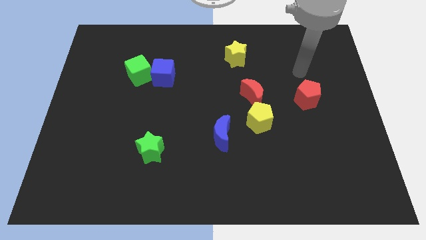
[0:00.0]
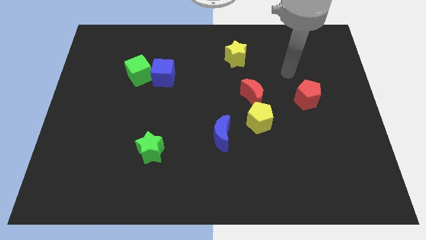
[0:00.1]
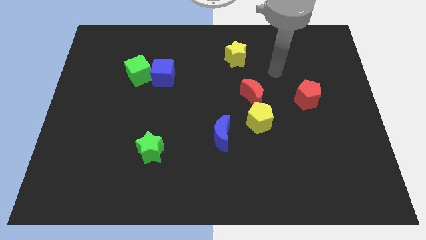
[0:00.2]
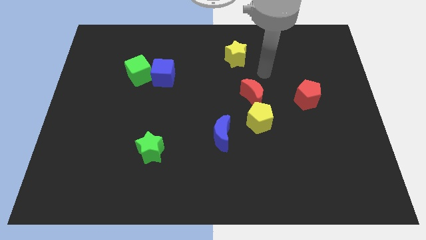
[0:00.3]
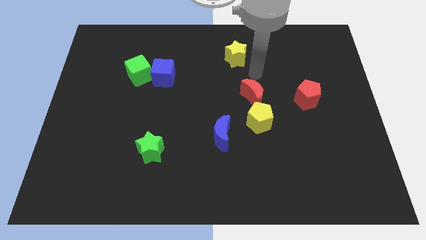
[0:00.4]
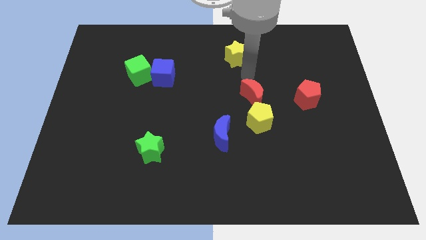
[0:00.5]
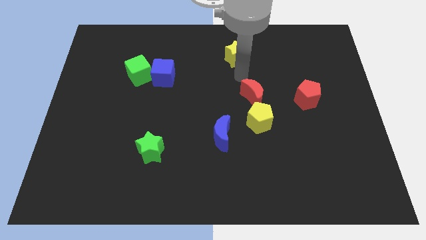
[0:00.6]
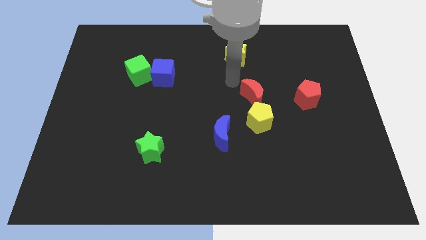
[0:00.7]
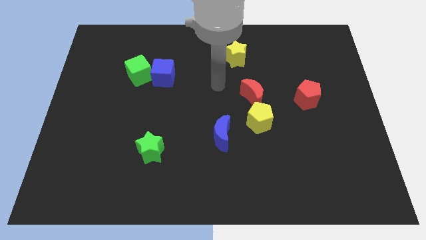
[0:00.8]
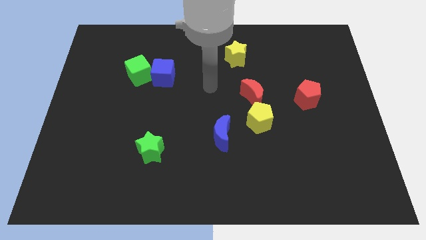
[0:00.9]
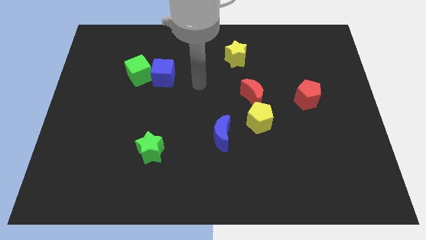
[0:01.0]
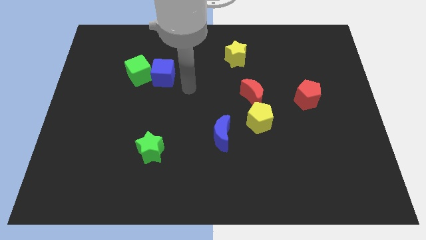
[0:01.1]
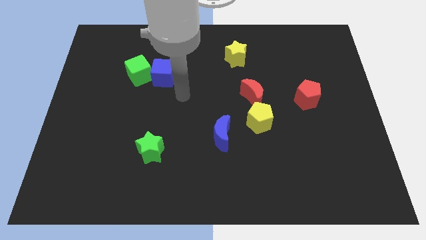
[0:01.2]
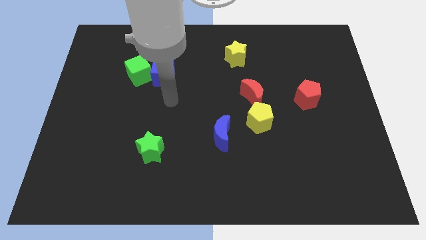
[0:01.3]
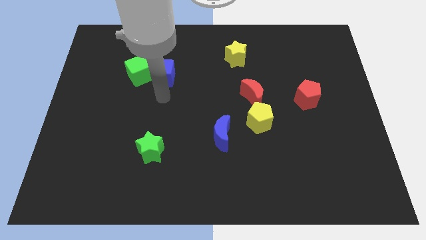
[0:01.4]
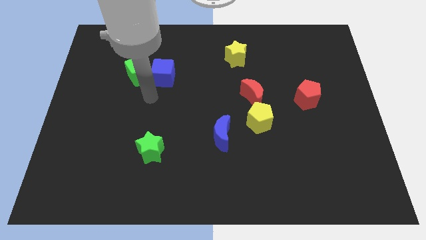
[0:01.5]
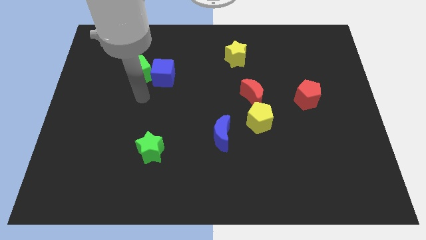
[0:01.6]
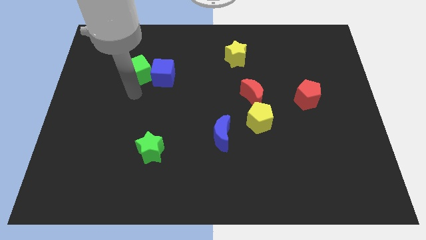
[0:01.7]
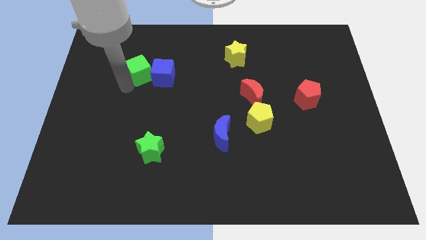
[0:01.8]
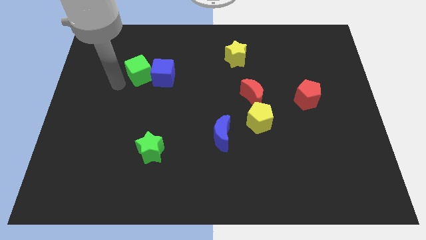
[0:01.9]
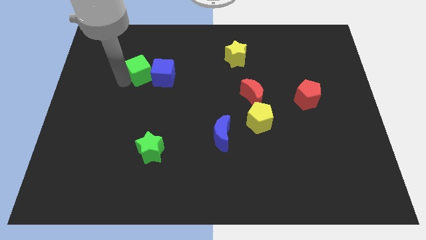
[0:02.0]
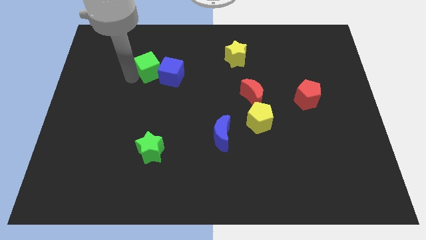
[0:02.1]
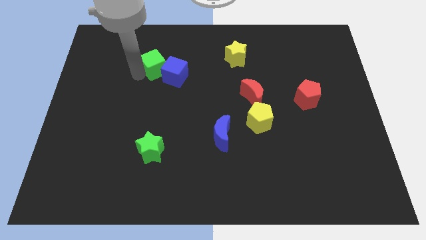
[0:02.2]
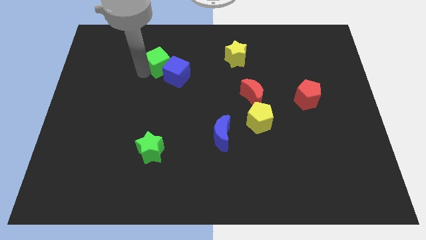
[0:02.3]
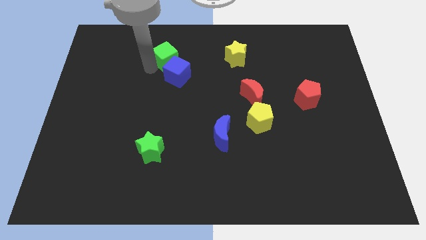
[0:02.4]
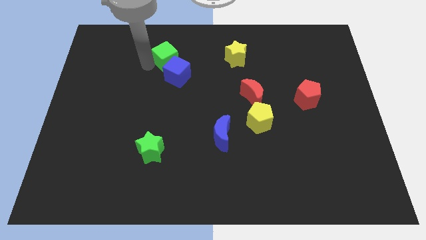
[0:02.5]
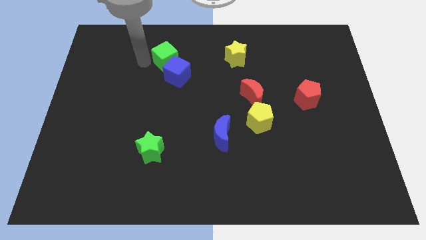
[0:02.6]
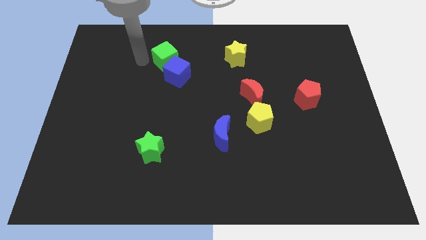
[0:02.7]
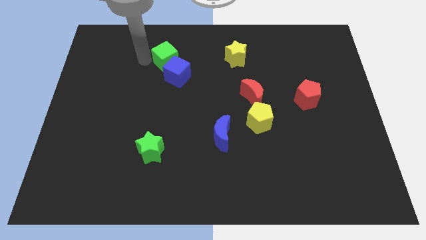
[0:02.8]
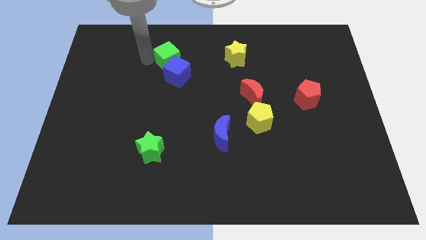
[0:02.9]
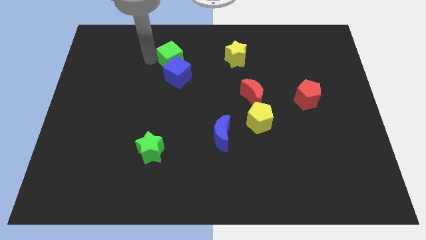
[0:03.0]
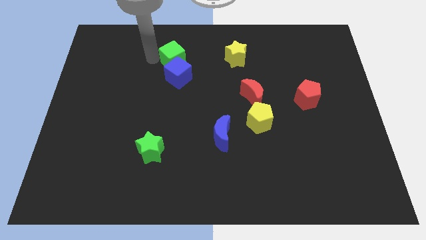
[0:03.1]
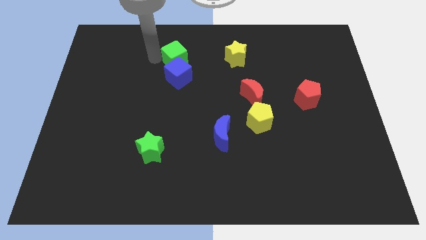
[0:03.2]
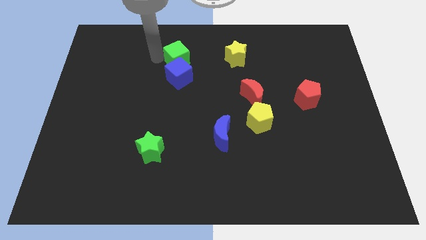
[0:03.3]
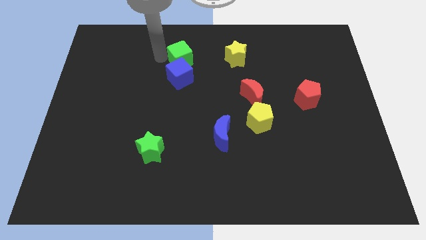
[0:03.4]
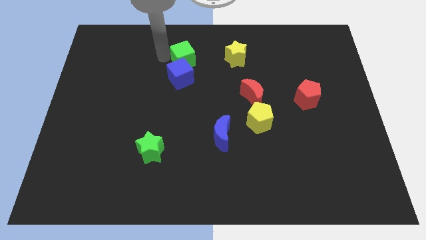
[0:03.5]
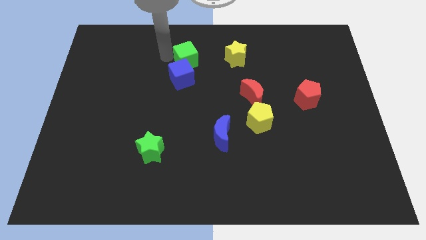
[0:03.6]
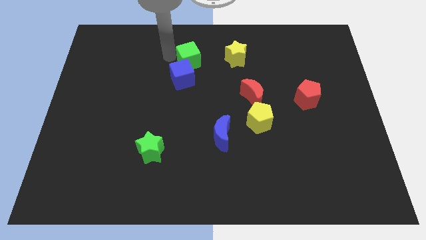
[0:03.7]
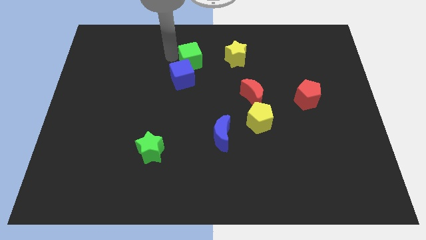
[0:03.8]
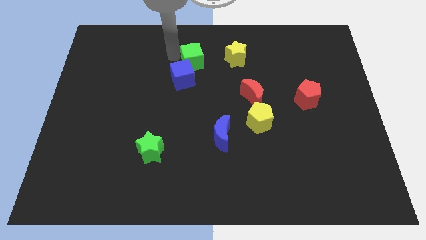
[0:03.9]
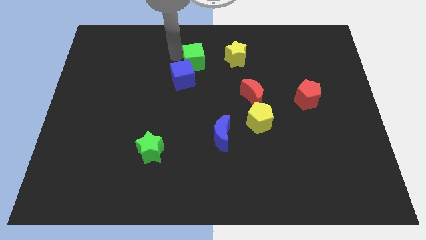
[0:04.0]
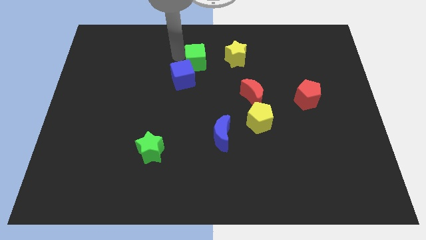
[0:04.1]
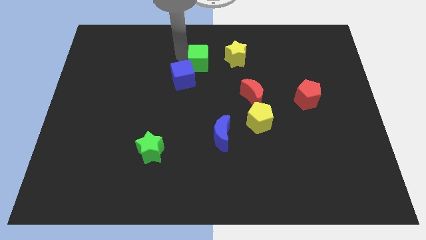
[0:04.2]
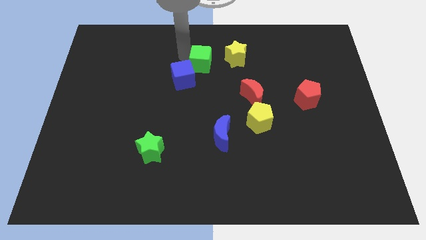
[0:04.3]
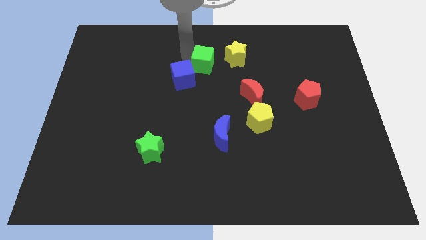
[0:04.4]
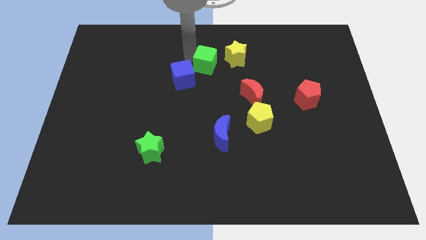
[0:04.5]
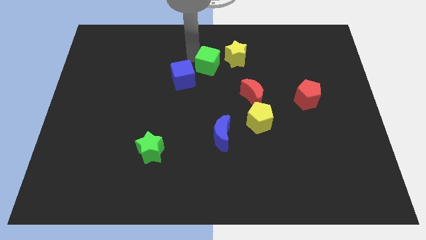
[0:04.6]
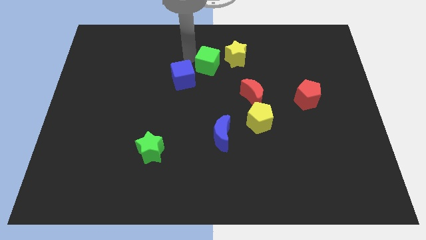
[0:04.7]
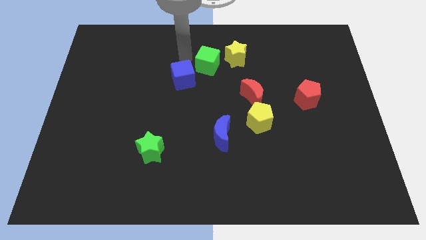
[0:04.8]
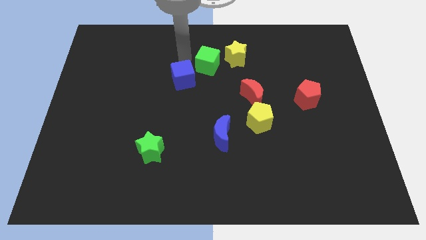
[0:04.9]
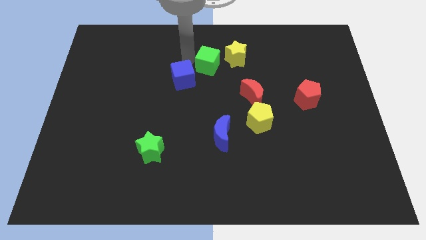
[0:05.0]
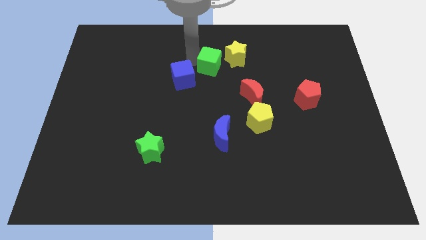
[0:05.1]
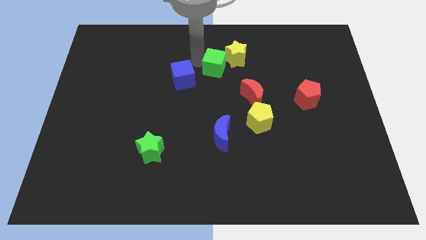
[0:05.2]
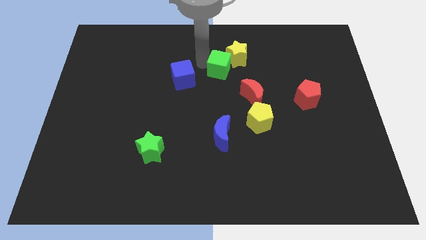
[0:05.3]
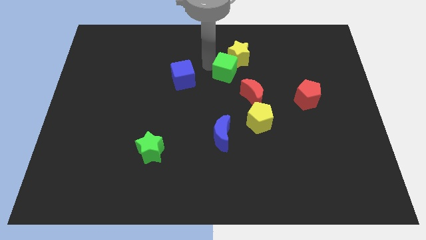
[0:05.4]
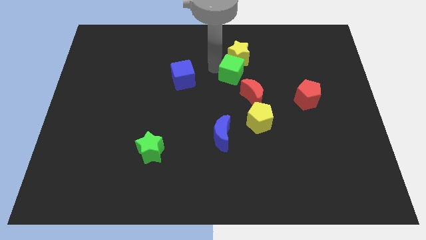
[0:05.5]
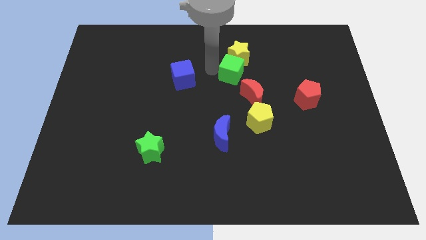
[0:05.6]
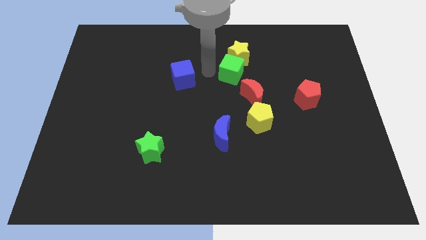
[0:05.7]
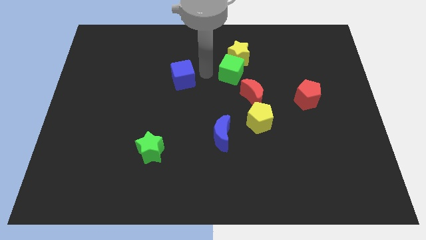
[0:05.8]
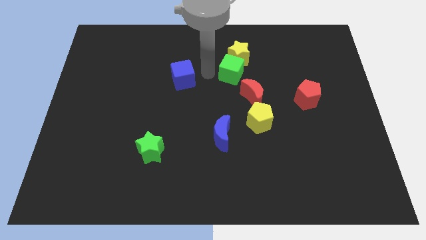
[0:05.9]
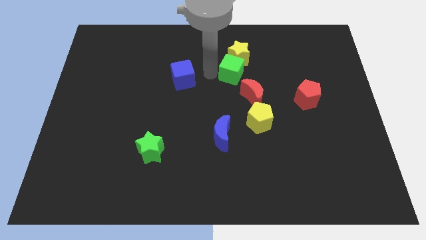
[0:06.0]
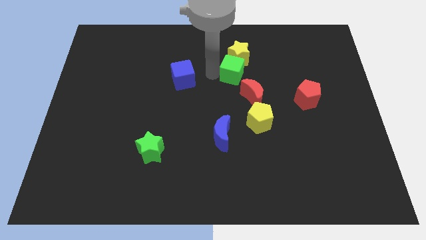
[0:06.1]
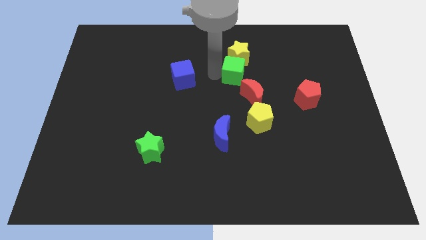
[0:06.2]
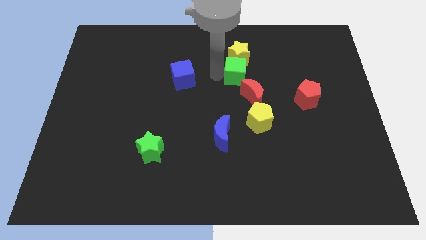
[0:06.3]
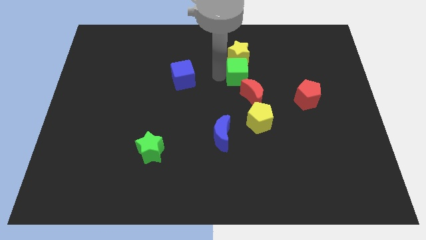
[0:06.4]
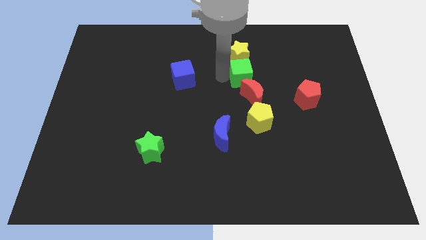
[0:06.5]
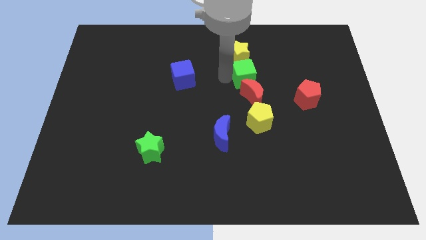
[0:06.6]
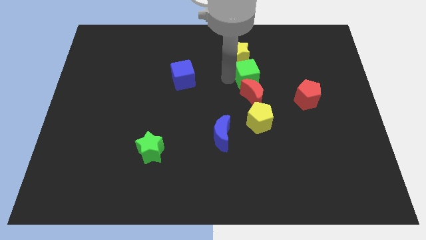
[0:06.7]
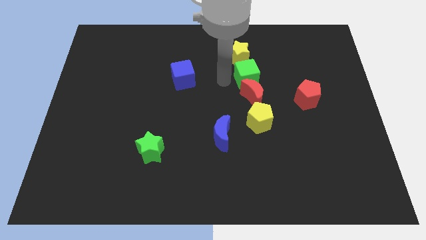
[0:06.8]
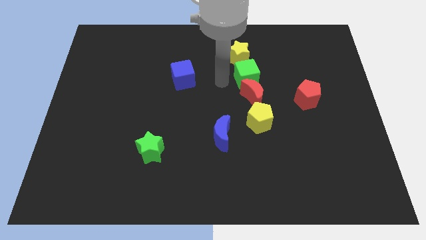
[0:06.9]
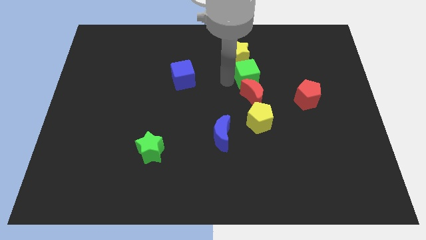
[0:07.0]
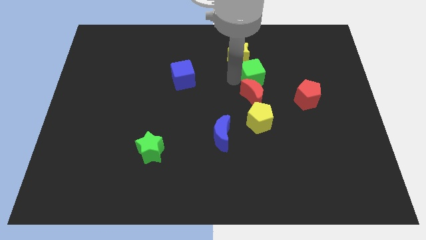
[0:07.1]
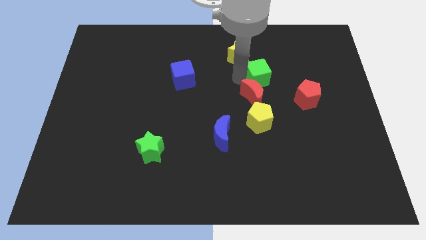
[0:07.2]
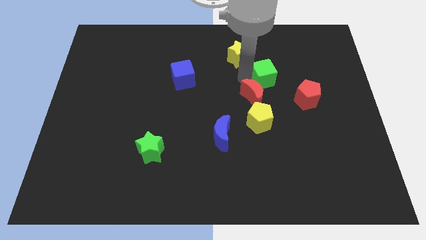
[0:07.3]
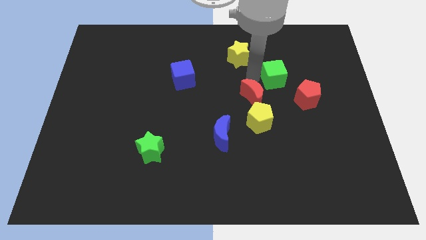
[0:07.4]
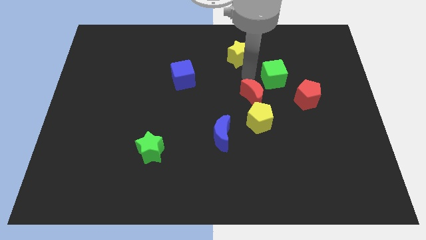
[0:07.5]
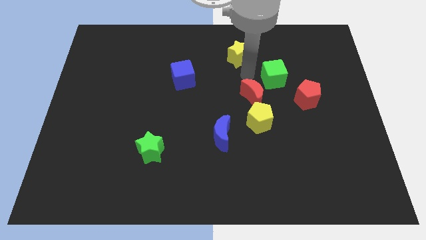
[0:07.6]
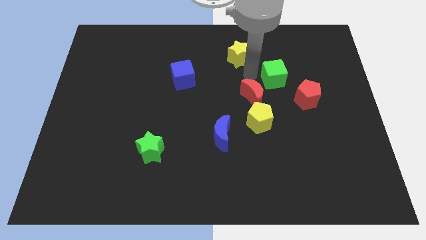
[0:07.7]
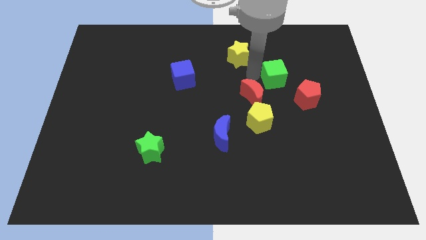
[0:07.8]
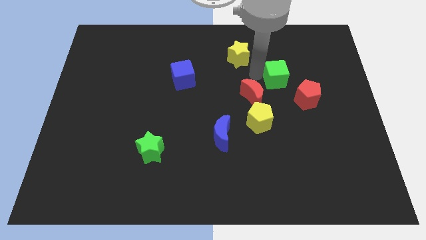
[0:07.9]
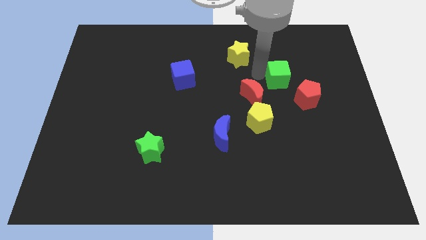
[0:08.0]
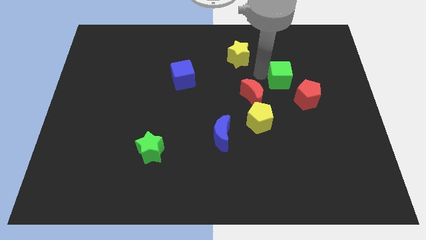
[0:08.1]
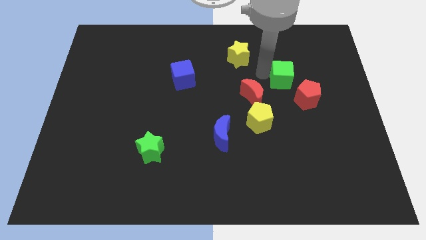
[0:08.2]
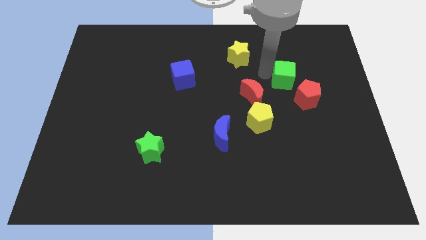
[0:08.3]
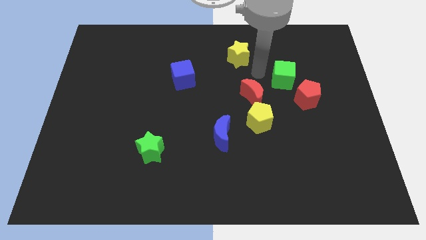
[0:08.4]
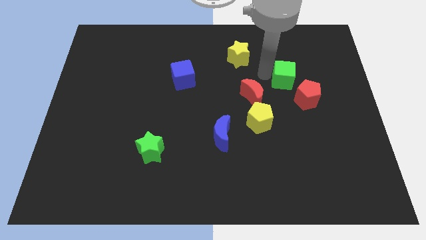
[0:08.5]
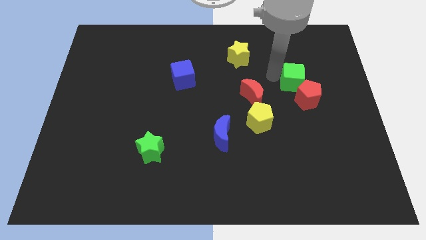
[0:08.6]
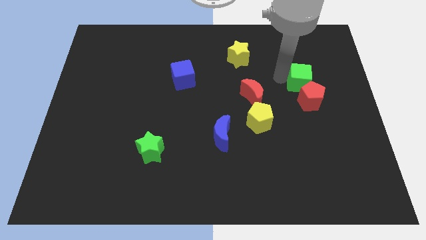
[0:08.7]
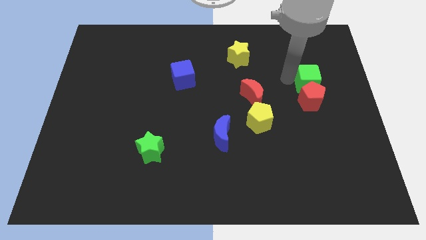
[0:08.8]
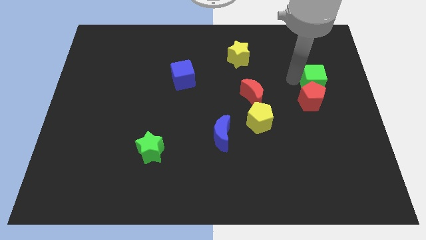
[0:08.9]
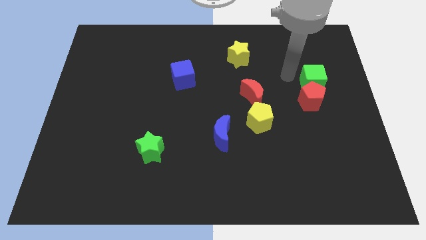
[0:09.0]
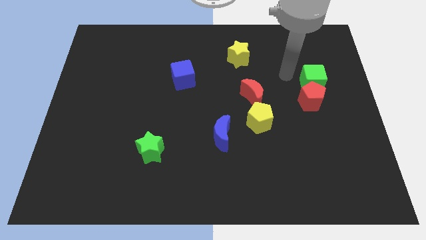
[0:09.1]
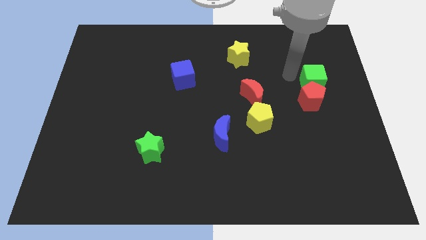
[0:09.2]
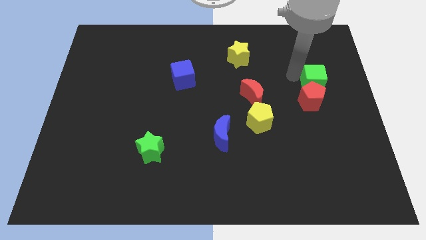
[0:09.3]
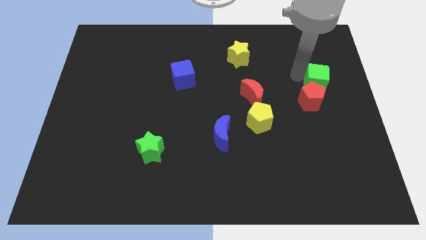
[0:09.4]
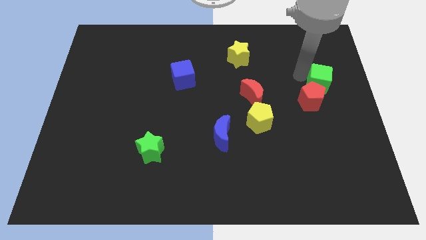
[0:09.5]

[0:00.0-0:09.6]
put the green cube to the center right
